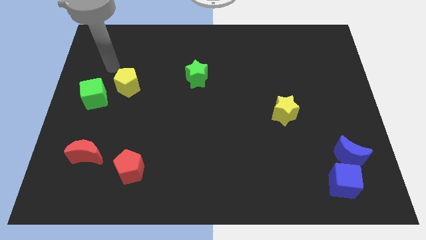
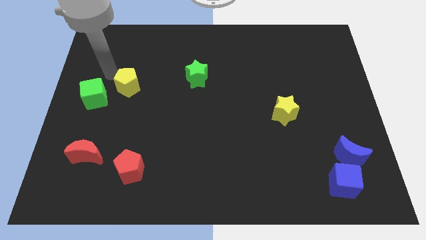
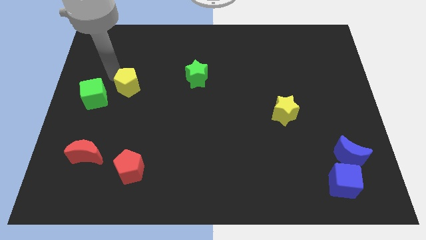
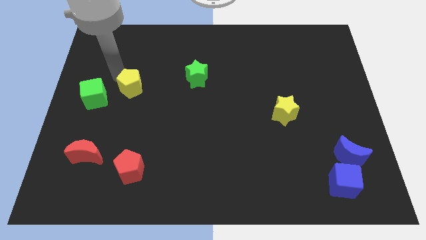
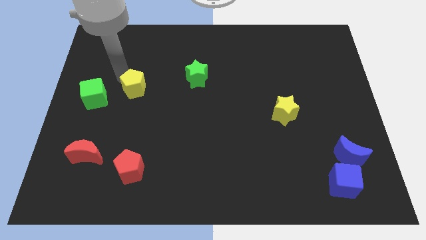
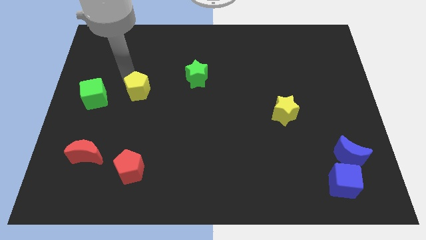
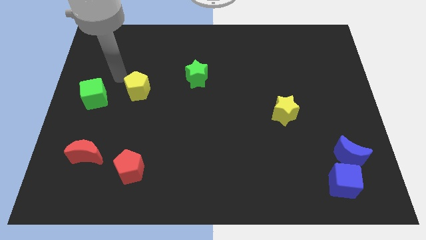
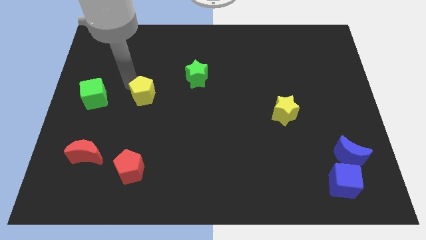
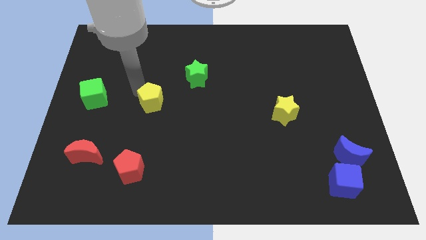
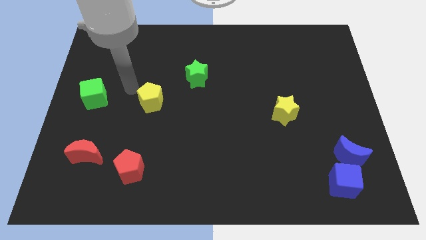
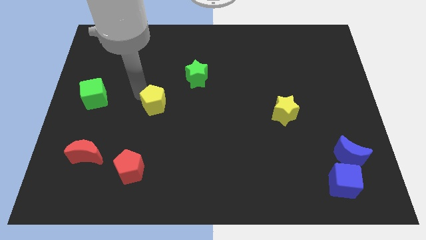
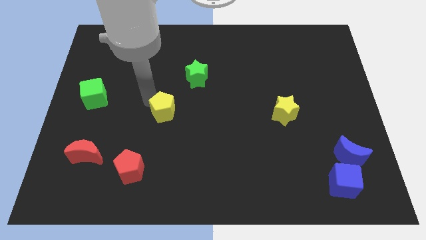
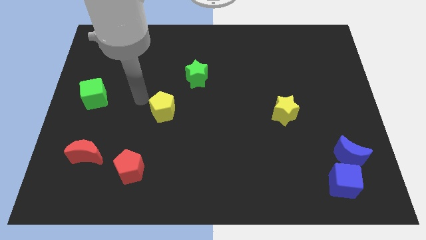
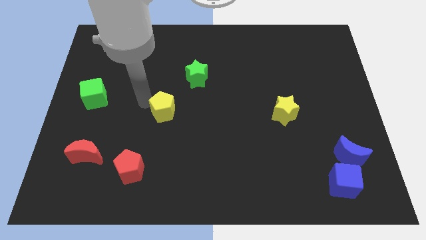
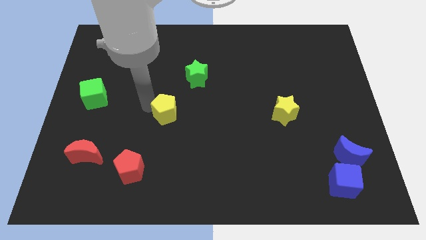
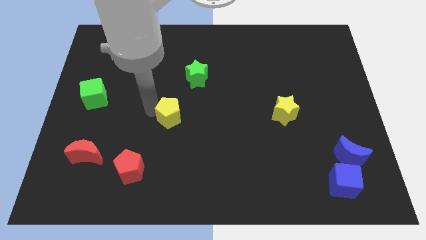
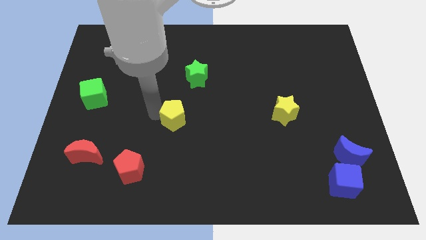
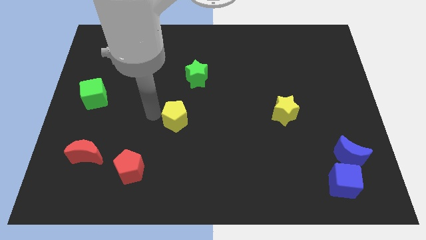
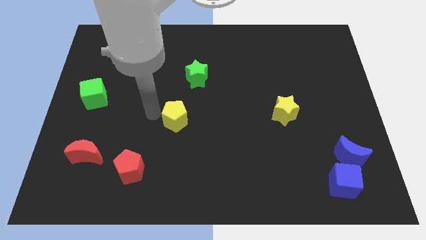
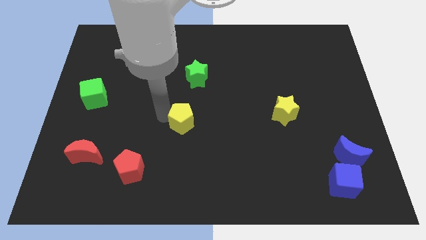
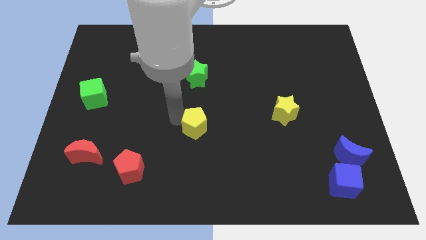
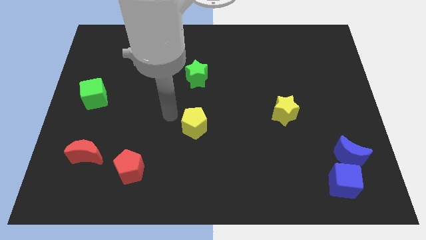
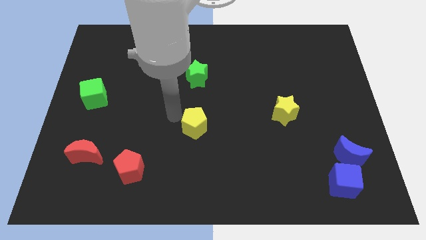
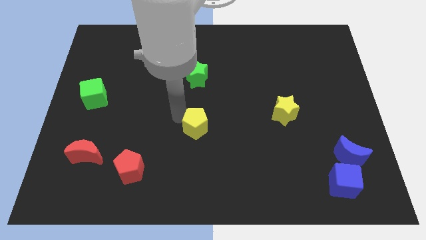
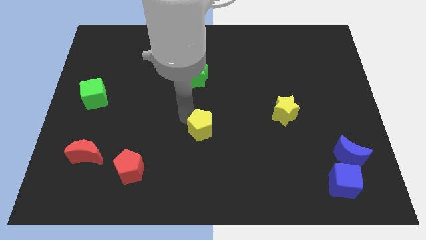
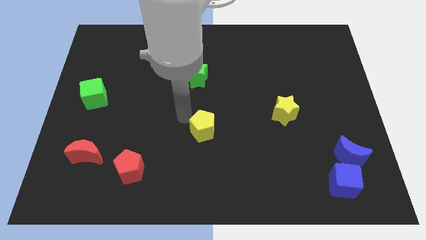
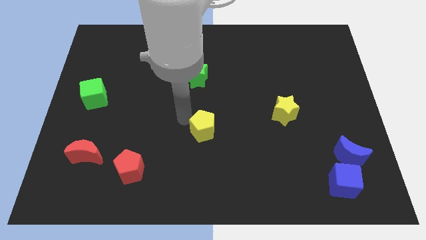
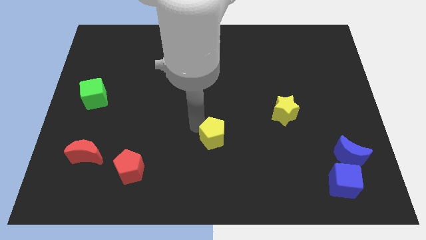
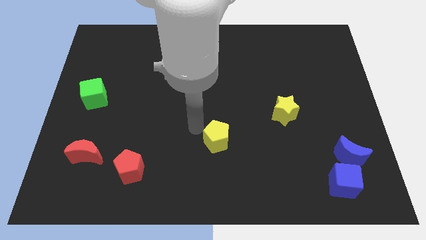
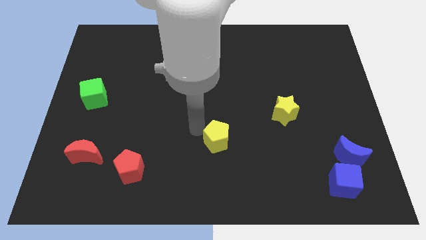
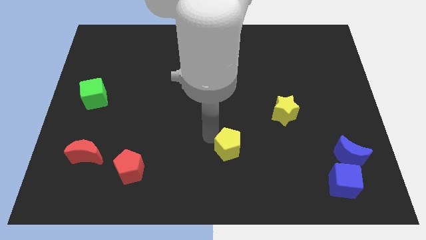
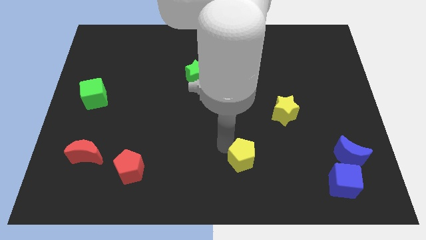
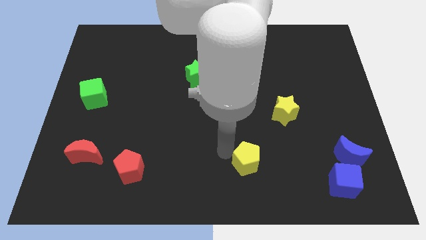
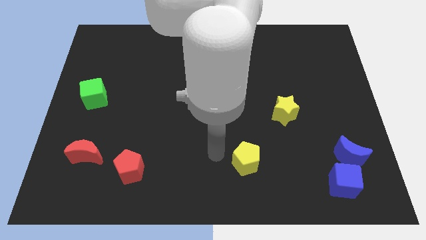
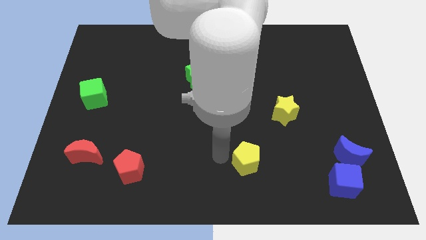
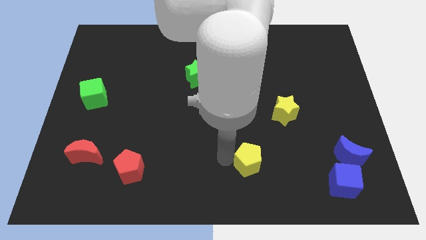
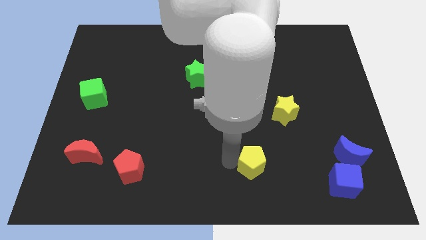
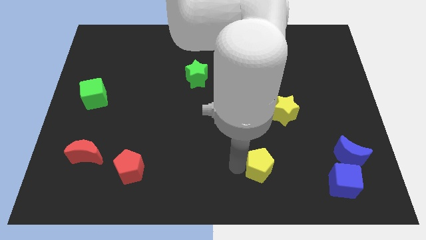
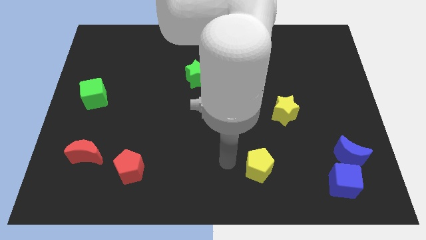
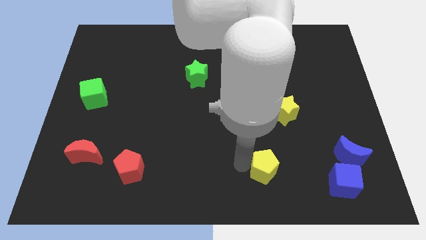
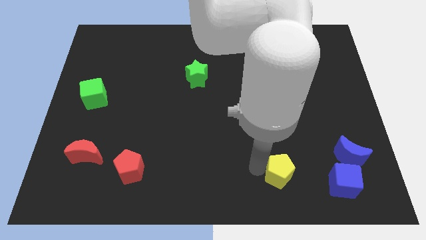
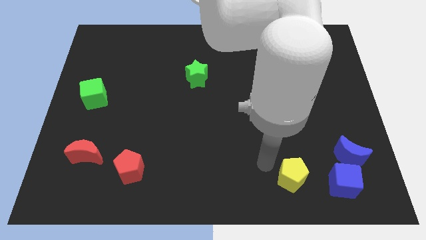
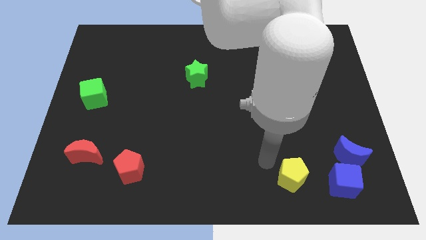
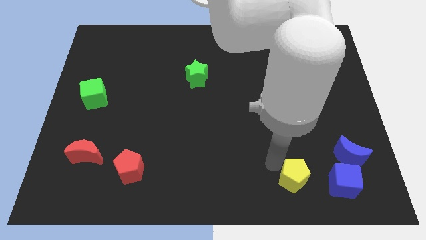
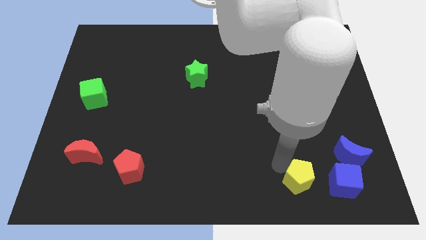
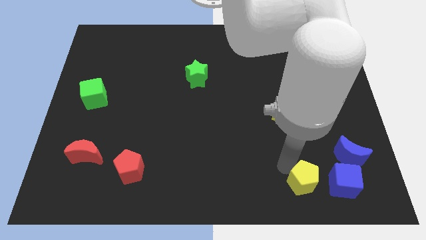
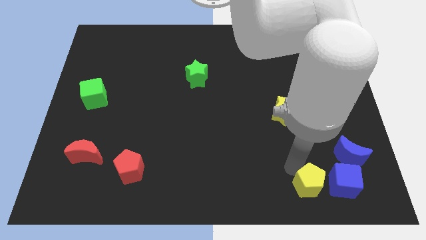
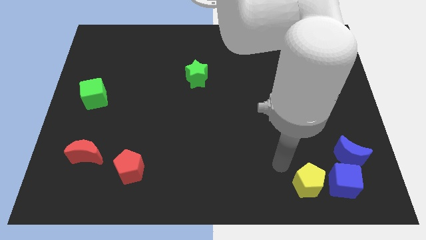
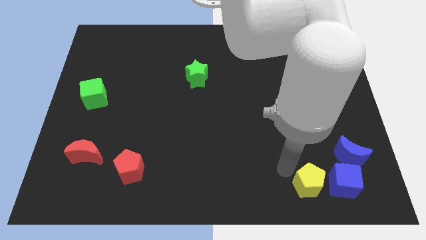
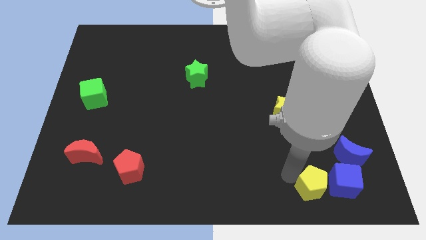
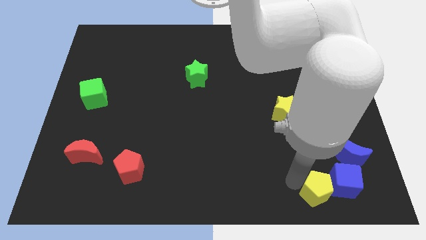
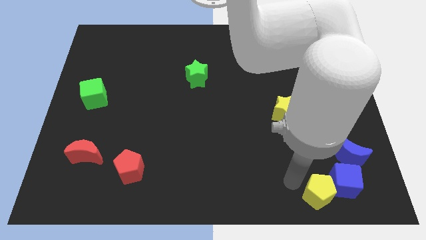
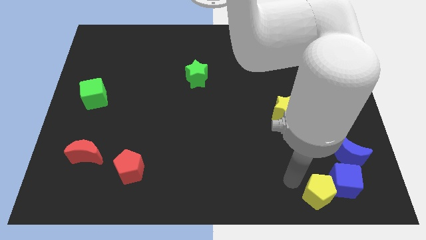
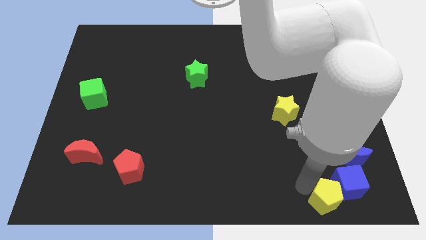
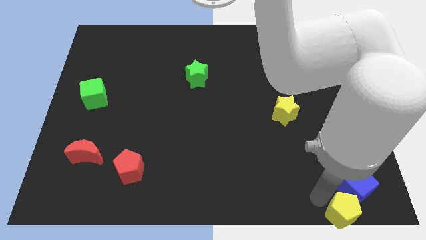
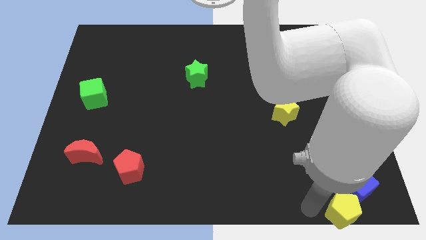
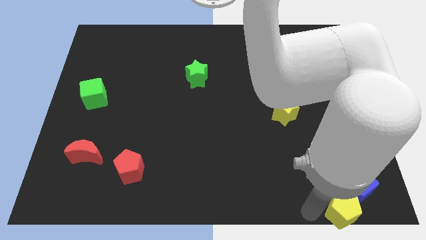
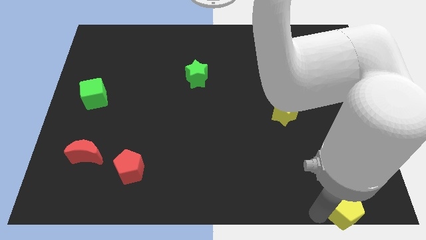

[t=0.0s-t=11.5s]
push the yellow pentagon to the bottom right

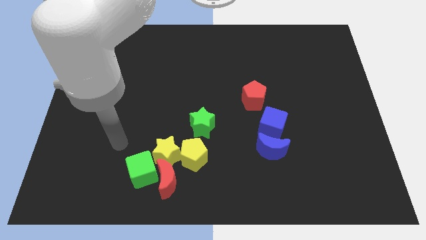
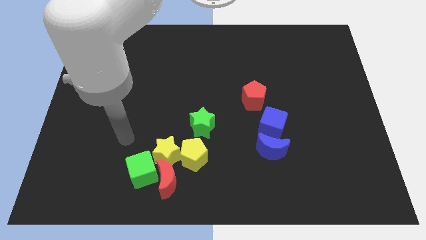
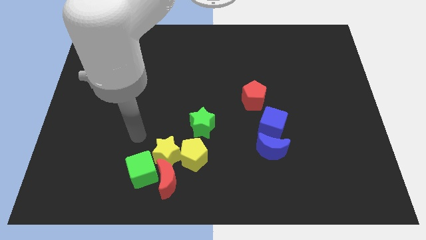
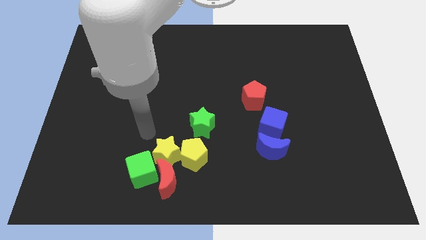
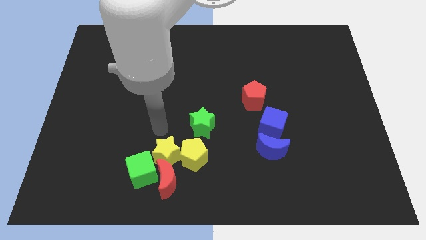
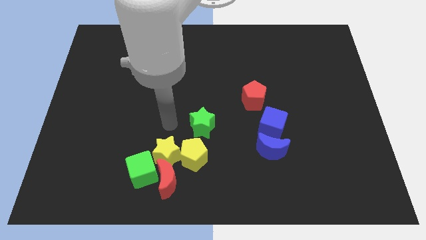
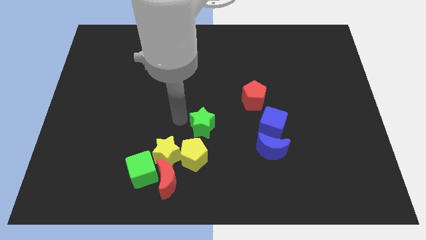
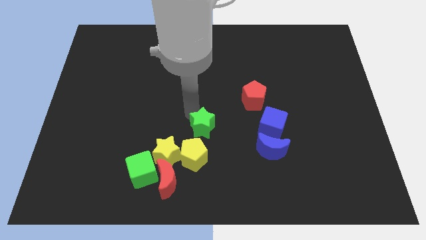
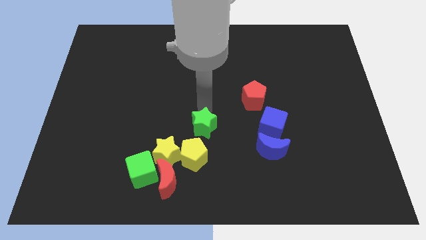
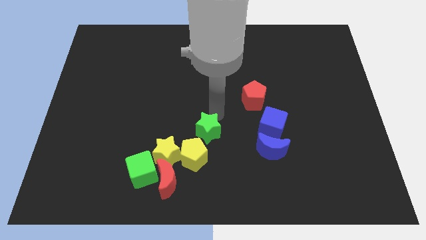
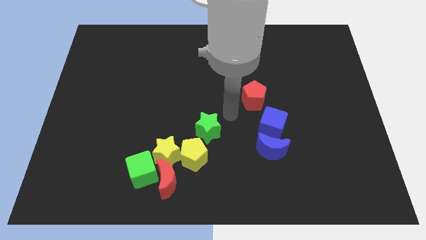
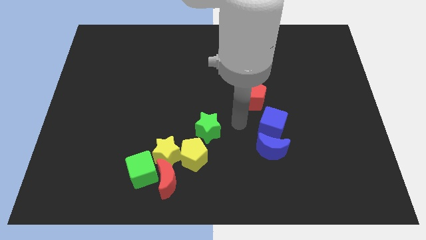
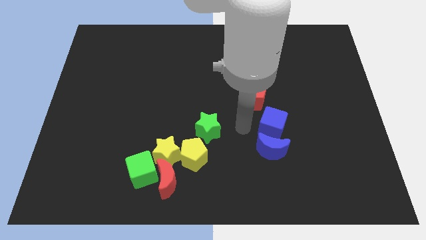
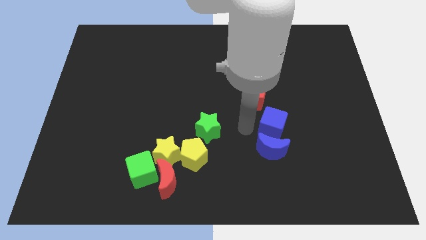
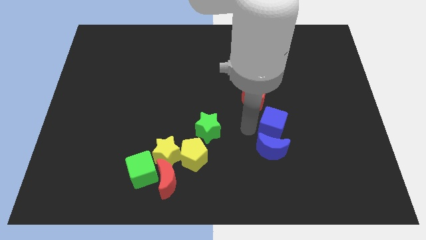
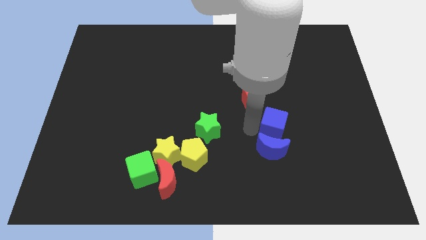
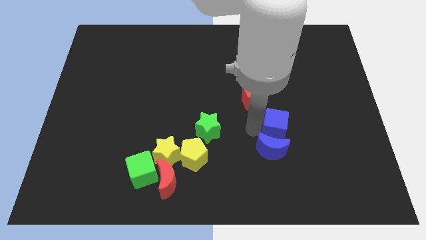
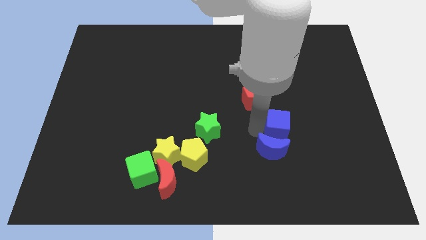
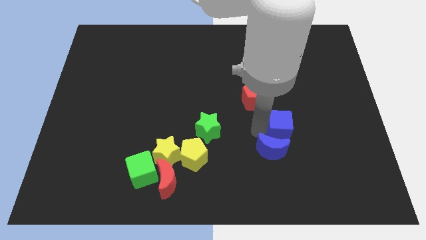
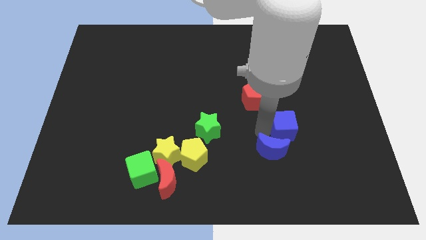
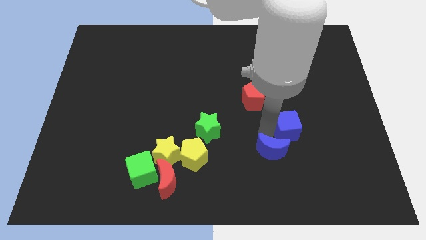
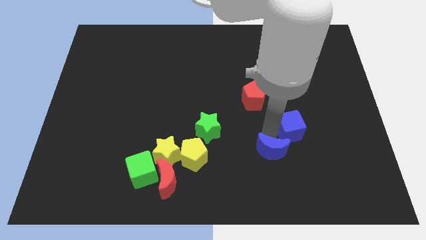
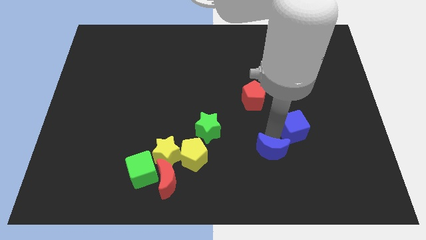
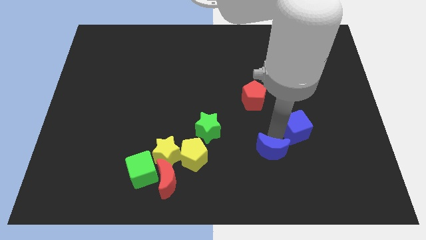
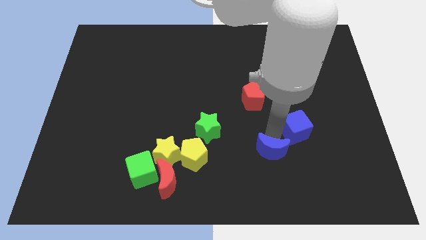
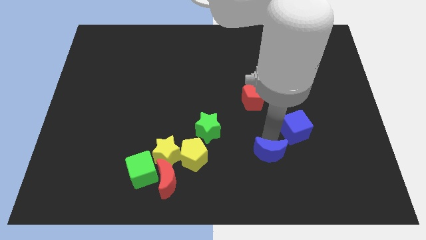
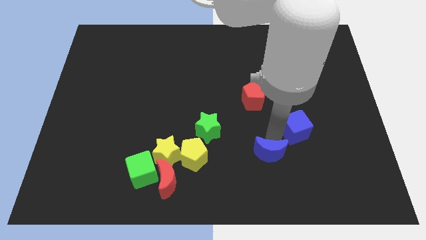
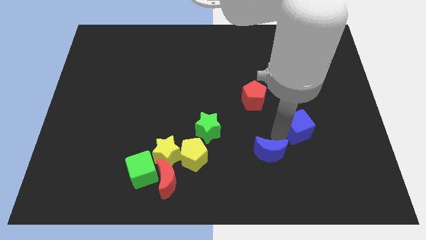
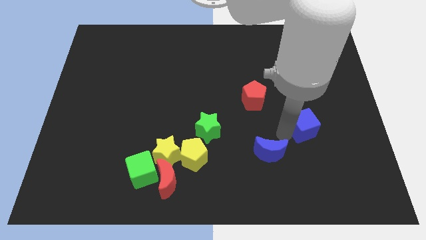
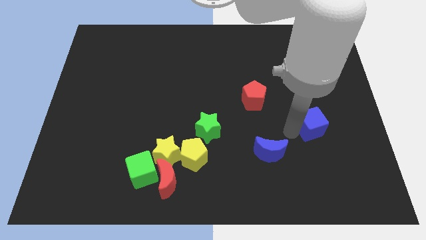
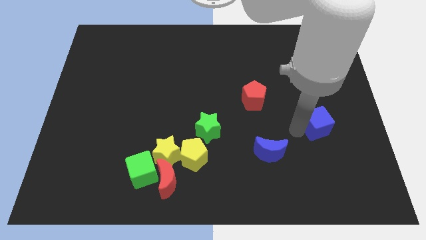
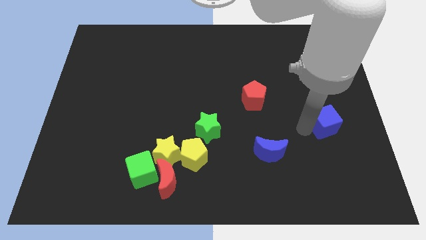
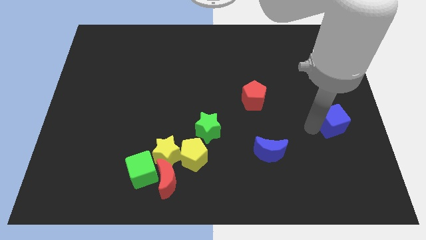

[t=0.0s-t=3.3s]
put the blue cube to the right side of the board
